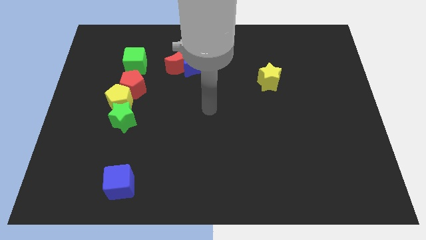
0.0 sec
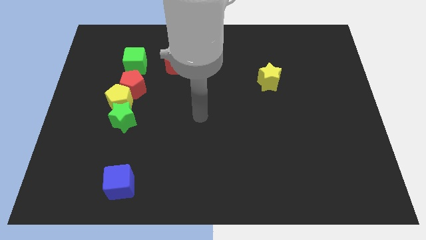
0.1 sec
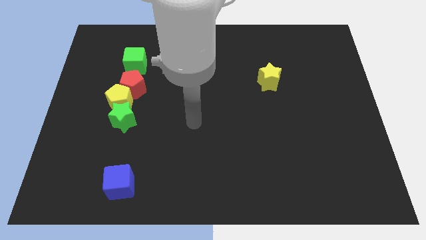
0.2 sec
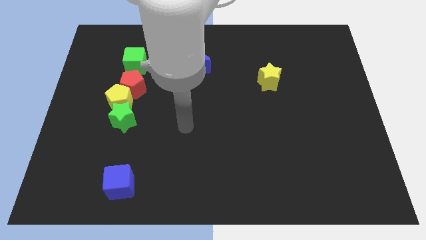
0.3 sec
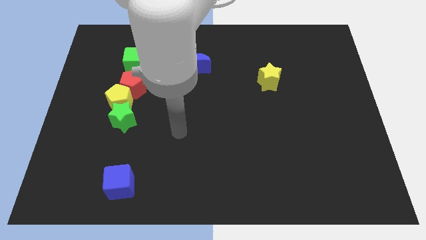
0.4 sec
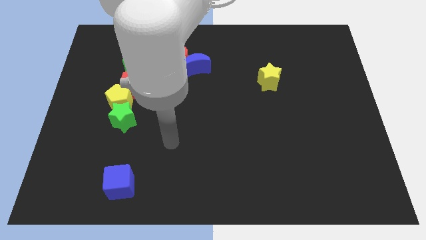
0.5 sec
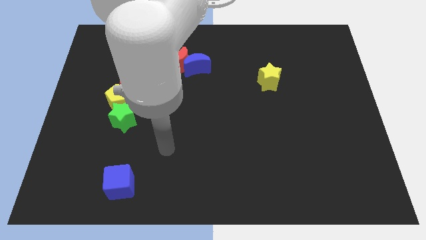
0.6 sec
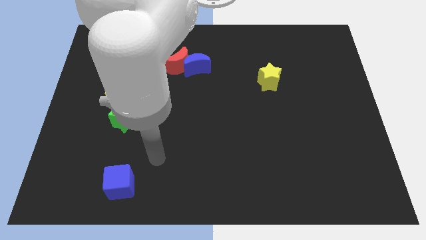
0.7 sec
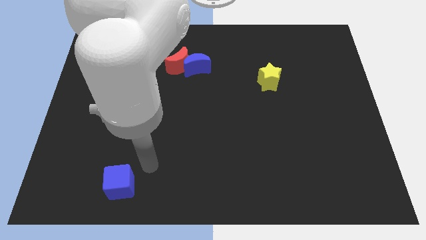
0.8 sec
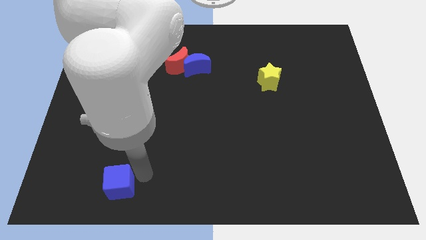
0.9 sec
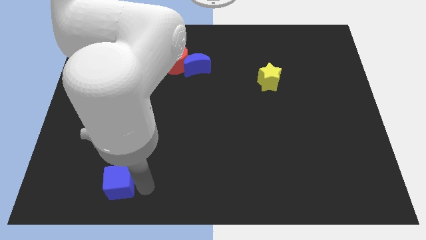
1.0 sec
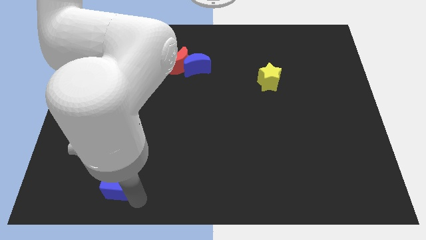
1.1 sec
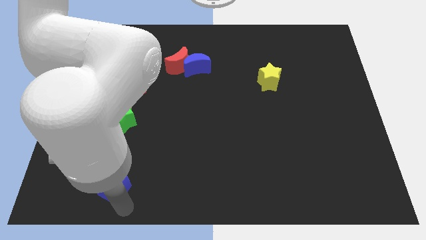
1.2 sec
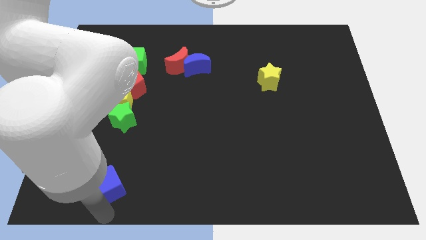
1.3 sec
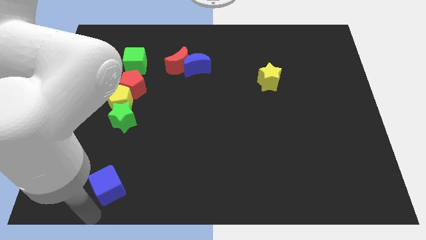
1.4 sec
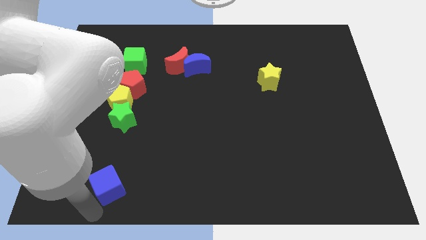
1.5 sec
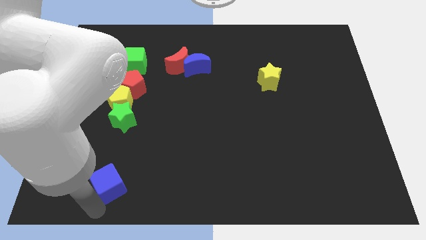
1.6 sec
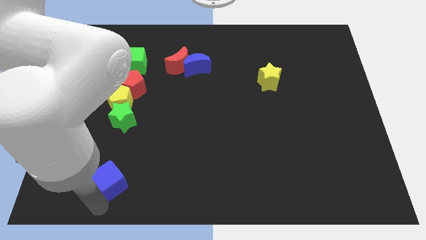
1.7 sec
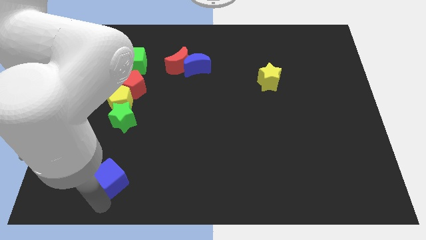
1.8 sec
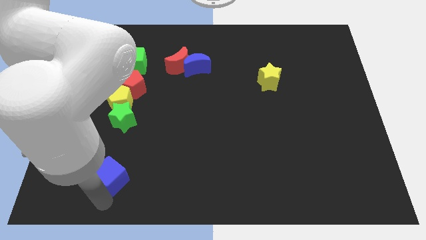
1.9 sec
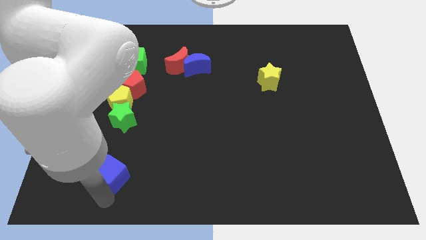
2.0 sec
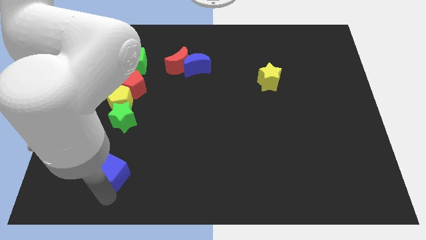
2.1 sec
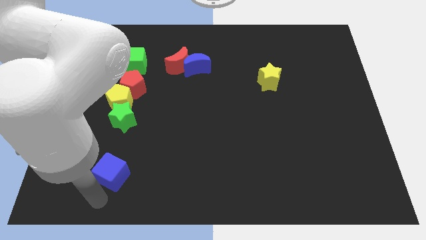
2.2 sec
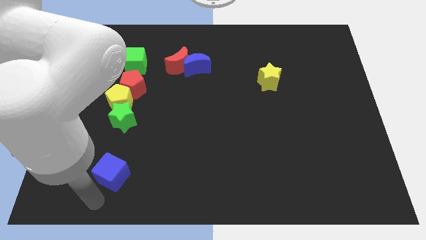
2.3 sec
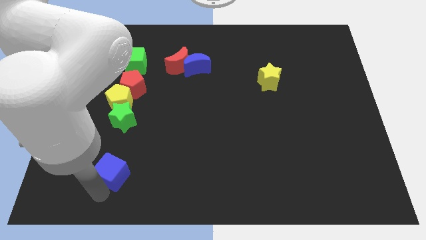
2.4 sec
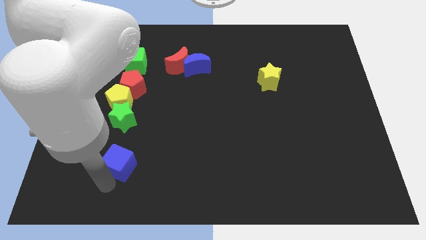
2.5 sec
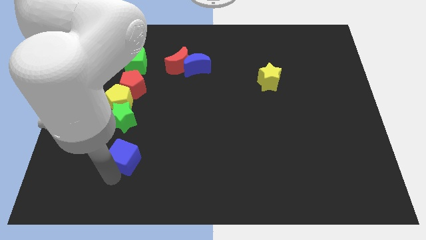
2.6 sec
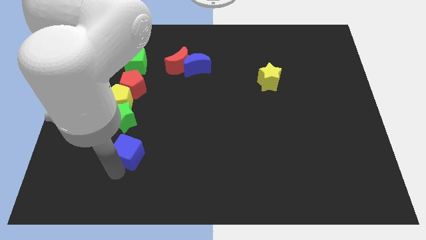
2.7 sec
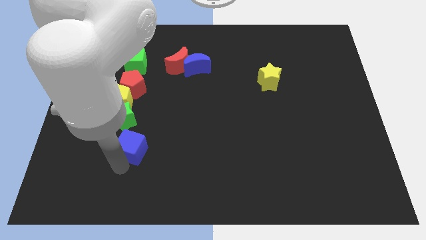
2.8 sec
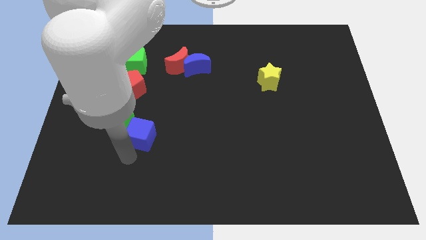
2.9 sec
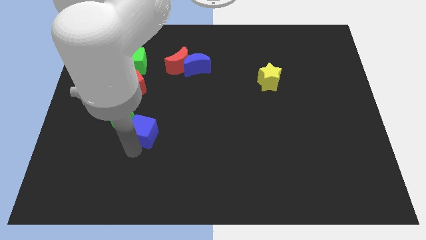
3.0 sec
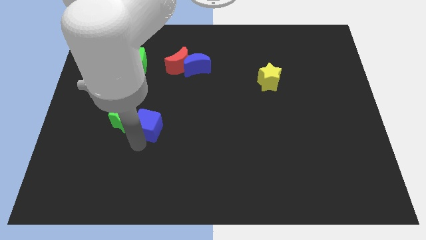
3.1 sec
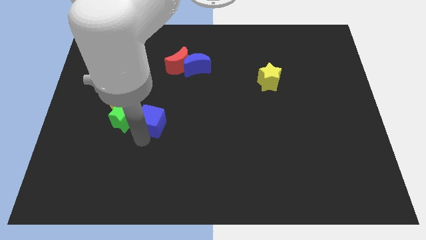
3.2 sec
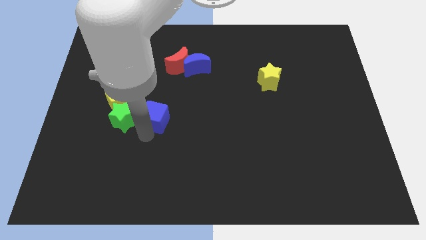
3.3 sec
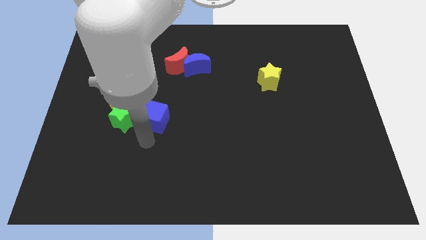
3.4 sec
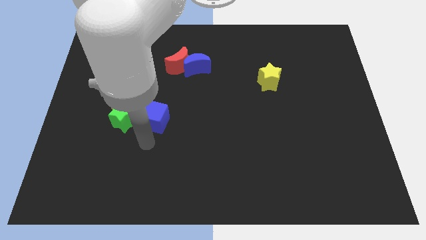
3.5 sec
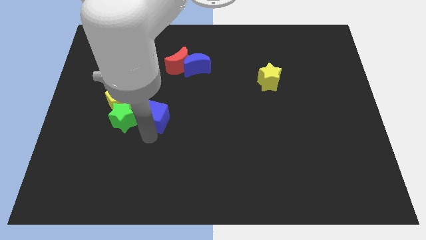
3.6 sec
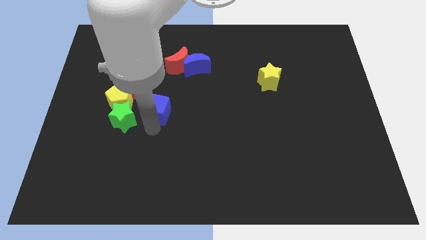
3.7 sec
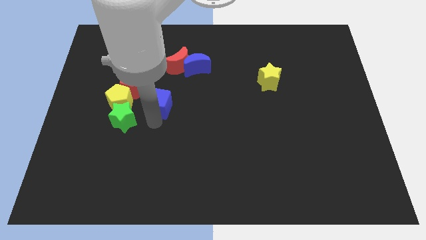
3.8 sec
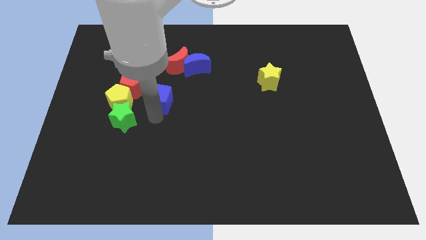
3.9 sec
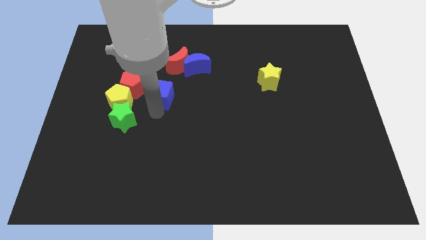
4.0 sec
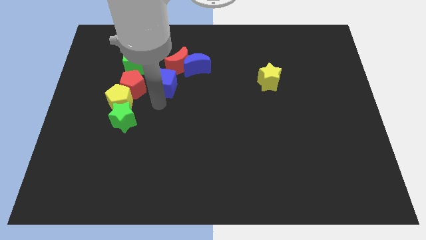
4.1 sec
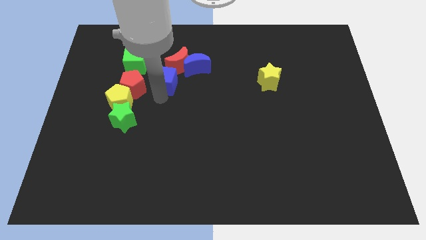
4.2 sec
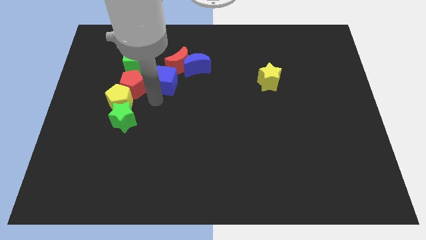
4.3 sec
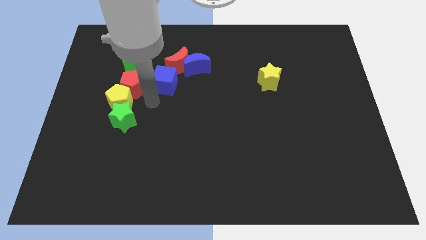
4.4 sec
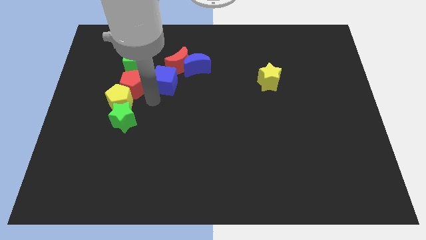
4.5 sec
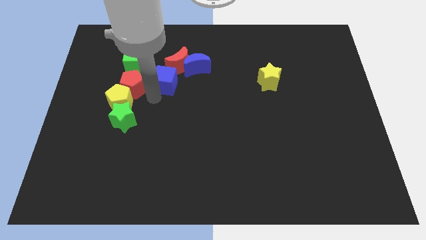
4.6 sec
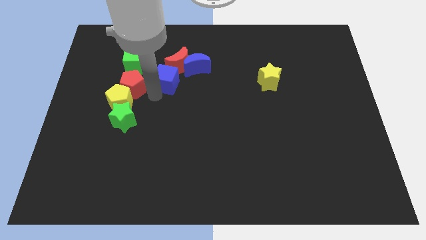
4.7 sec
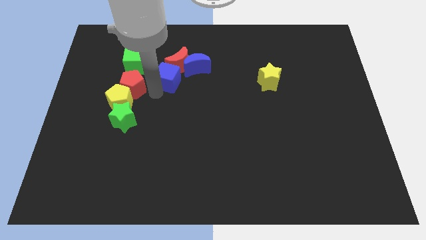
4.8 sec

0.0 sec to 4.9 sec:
put the blue cube to the red moon

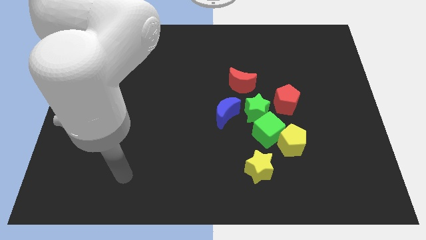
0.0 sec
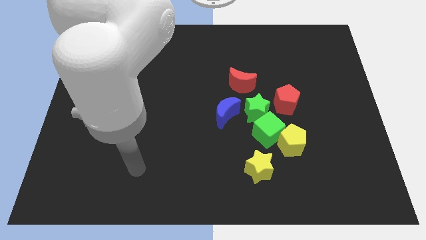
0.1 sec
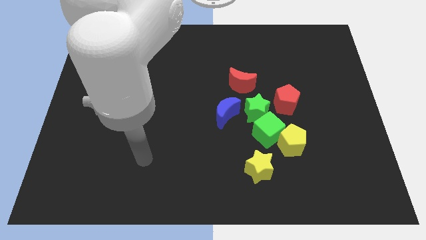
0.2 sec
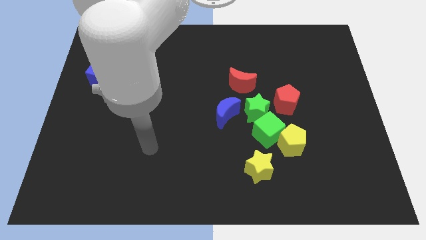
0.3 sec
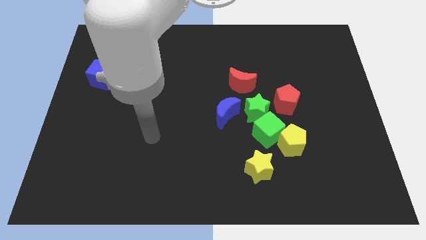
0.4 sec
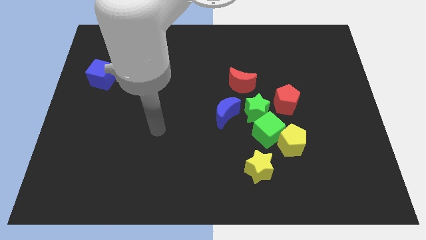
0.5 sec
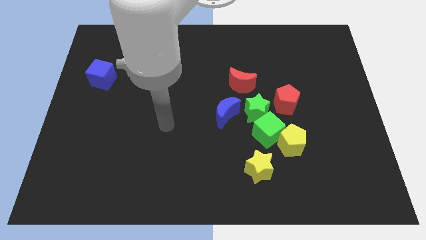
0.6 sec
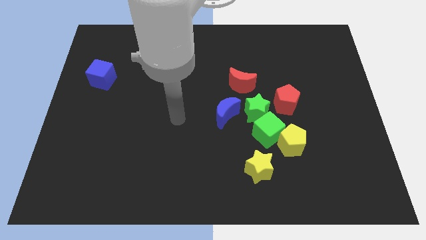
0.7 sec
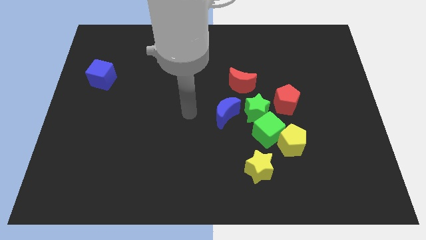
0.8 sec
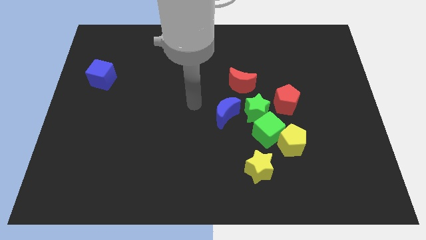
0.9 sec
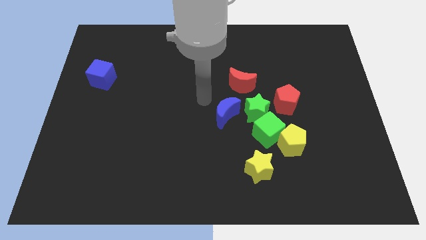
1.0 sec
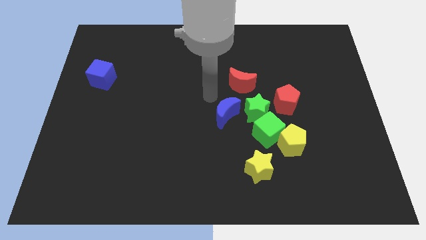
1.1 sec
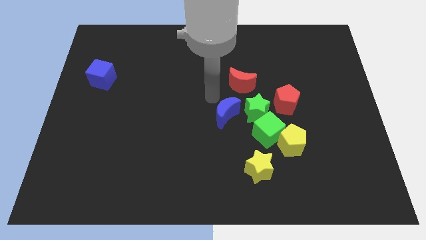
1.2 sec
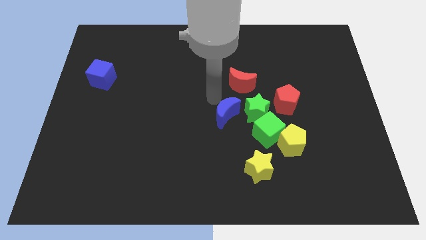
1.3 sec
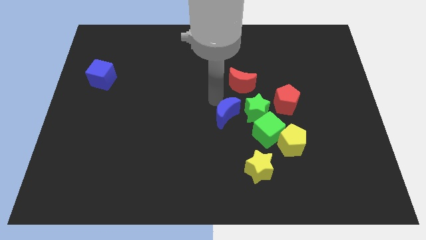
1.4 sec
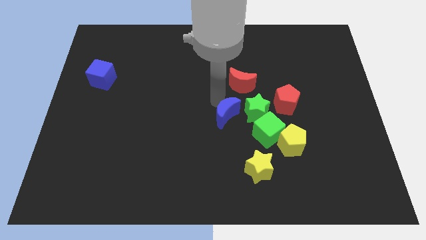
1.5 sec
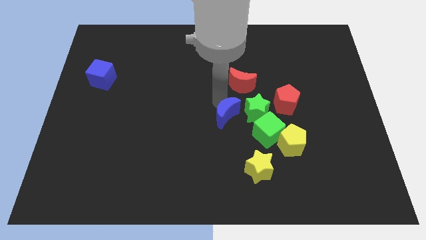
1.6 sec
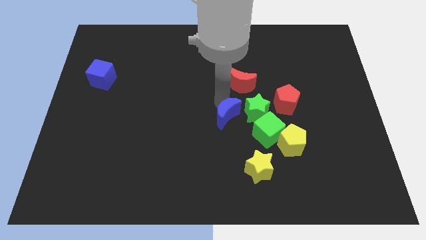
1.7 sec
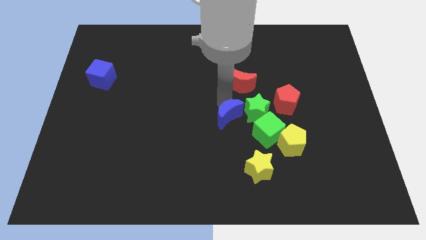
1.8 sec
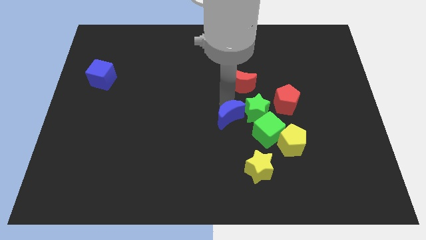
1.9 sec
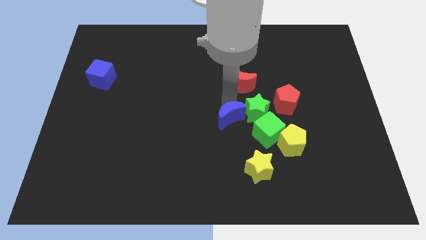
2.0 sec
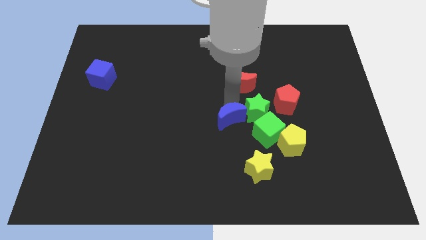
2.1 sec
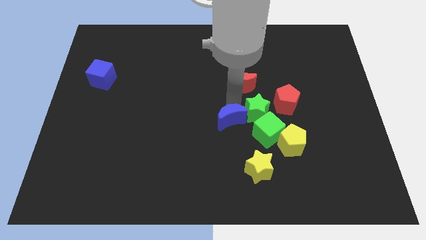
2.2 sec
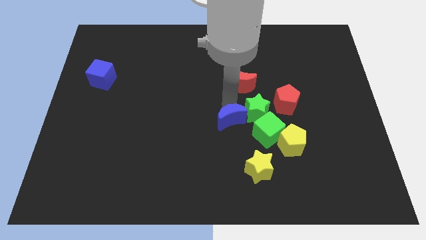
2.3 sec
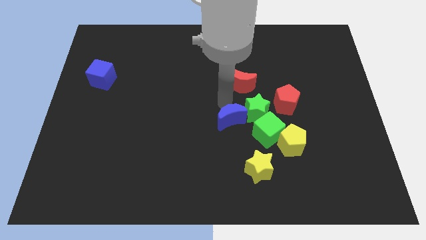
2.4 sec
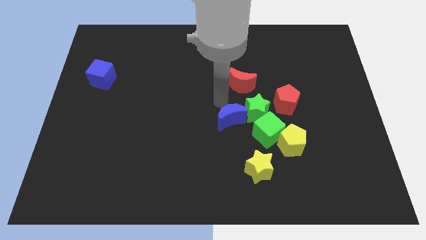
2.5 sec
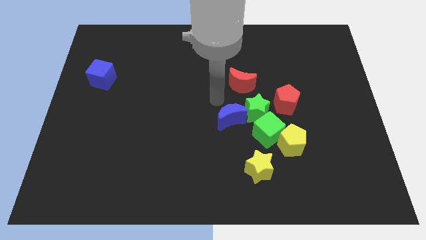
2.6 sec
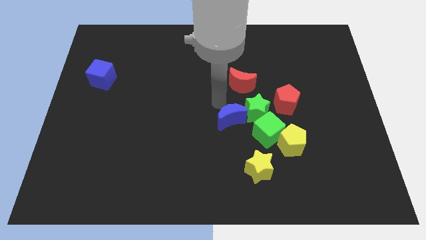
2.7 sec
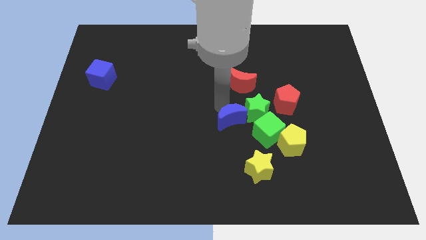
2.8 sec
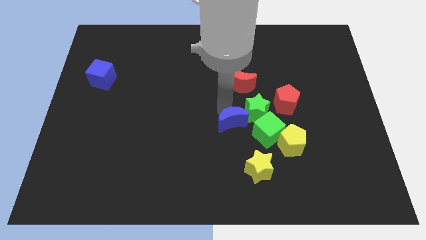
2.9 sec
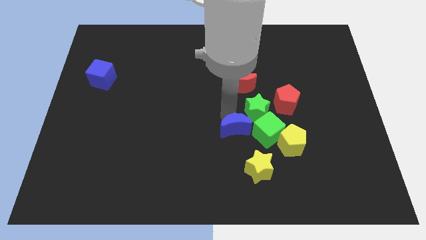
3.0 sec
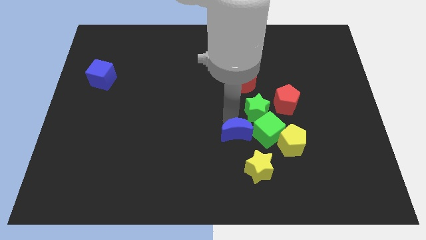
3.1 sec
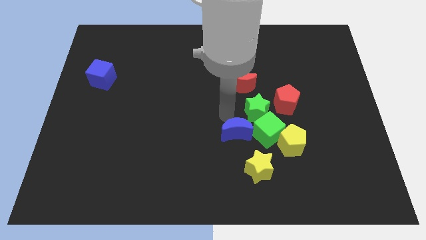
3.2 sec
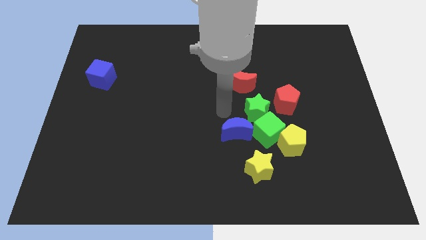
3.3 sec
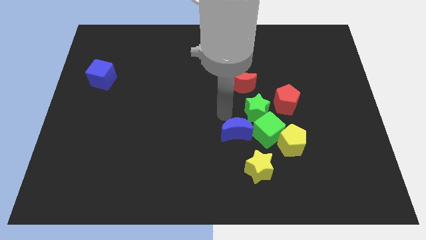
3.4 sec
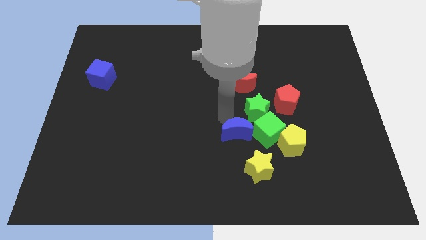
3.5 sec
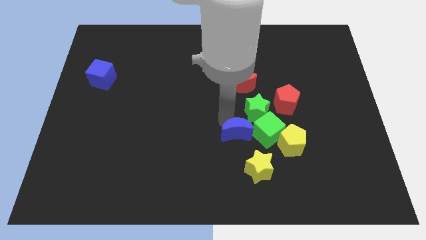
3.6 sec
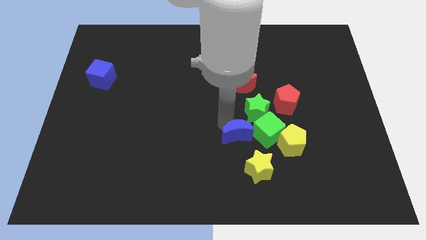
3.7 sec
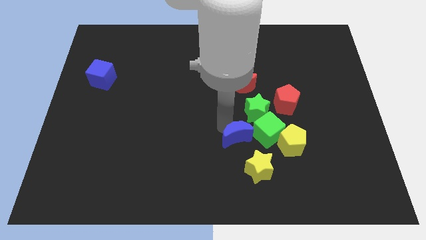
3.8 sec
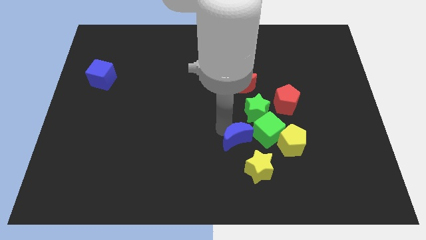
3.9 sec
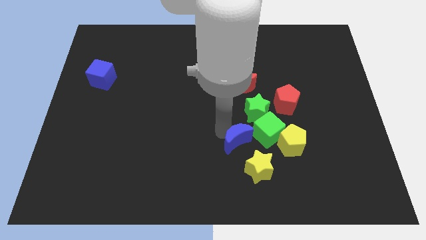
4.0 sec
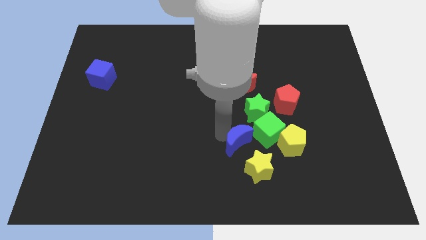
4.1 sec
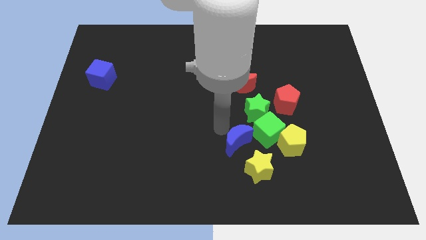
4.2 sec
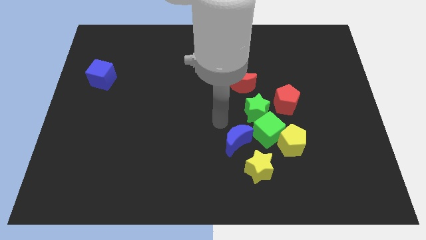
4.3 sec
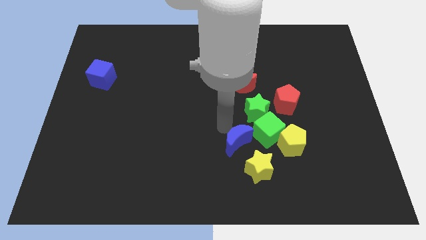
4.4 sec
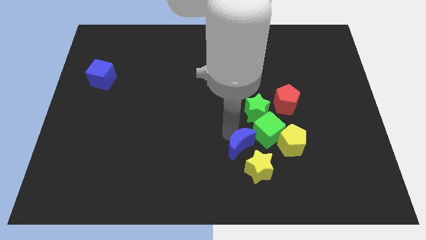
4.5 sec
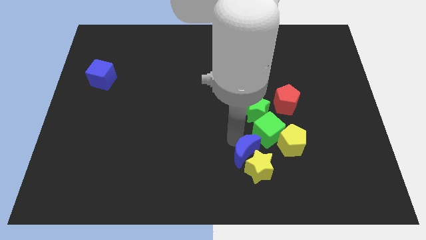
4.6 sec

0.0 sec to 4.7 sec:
slide the blue moon to the yellow star
